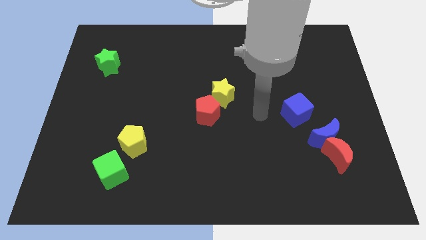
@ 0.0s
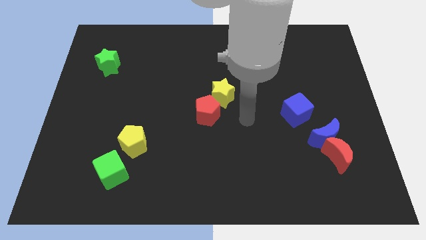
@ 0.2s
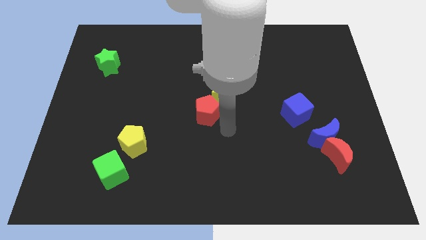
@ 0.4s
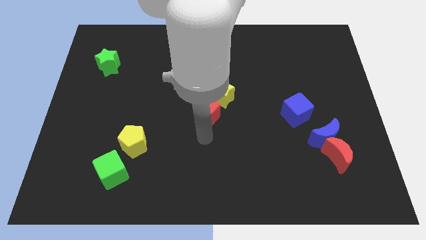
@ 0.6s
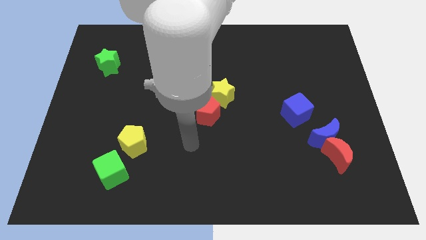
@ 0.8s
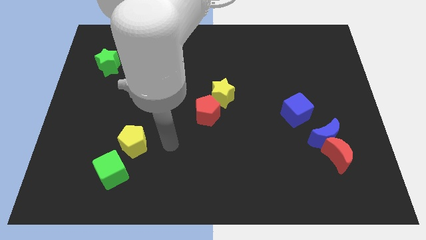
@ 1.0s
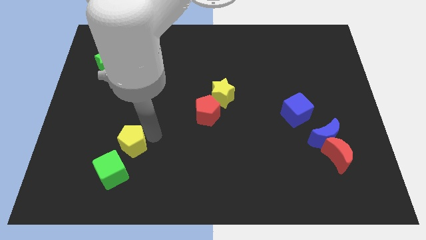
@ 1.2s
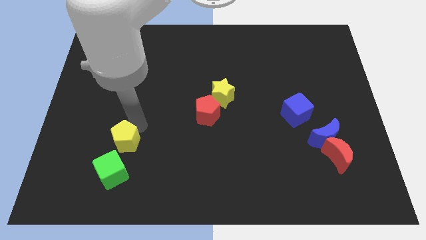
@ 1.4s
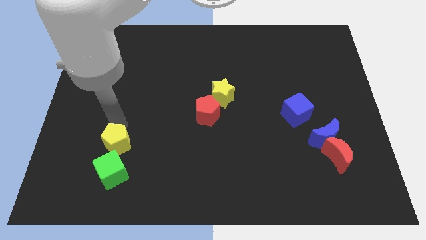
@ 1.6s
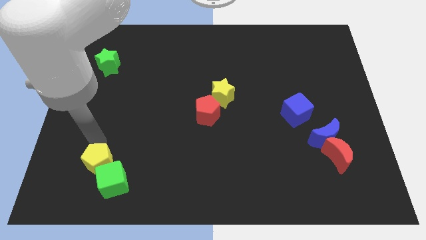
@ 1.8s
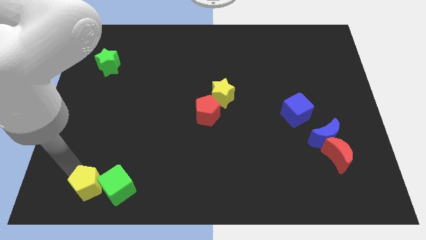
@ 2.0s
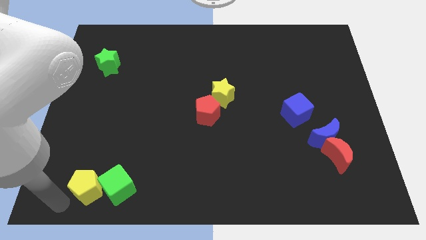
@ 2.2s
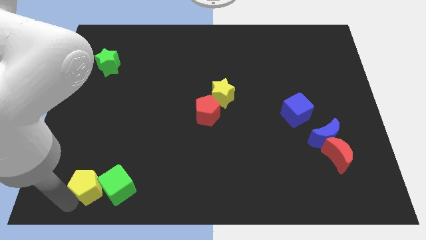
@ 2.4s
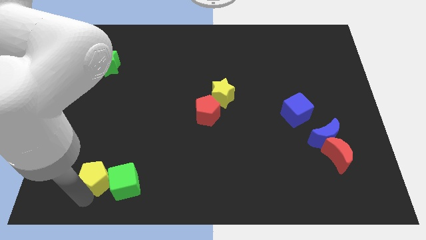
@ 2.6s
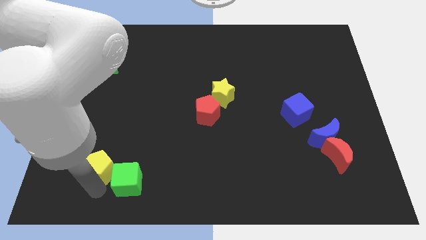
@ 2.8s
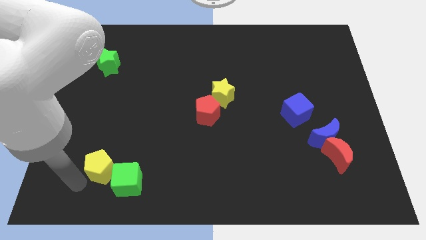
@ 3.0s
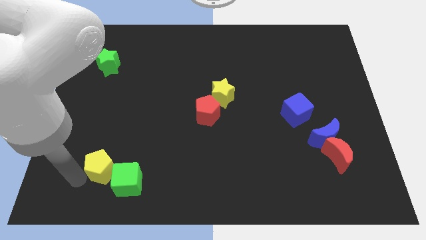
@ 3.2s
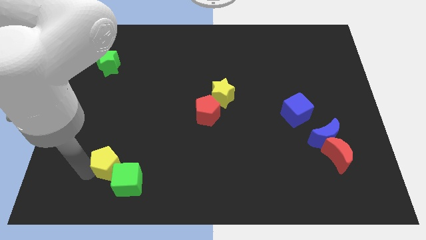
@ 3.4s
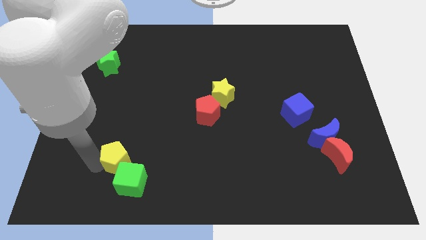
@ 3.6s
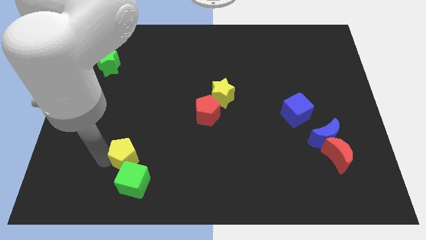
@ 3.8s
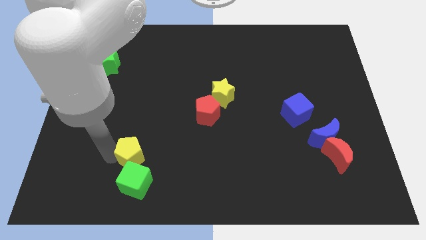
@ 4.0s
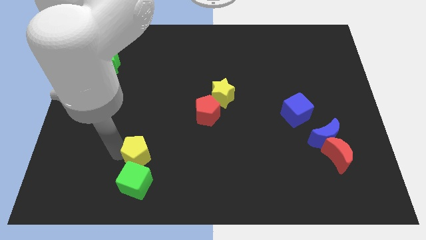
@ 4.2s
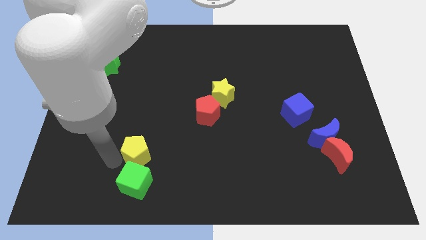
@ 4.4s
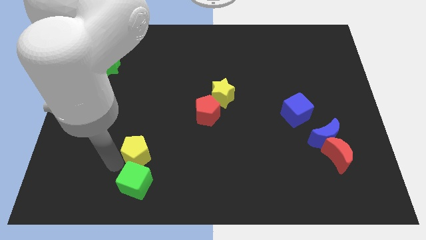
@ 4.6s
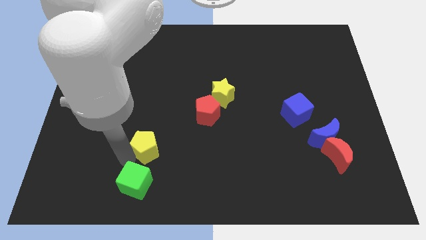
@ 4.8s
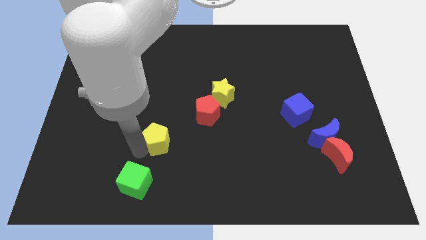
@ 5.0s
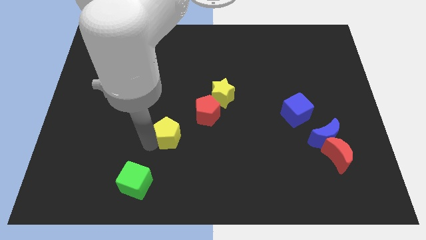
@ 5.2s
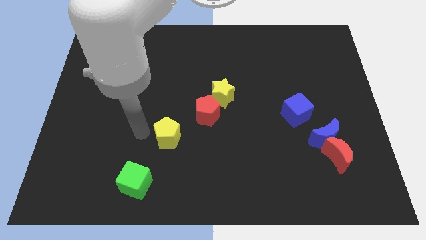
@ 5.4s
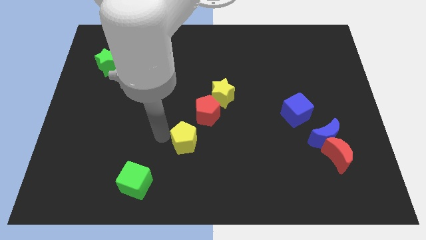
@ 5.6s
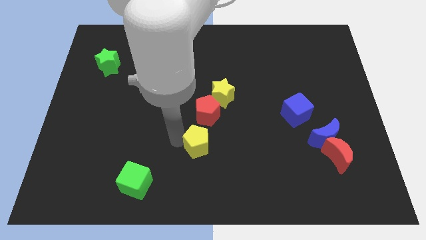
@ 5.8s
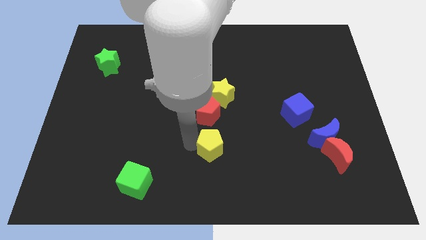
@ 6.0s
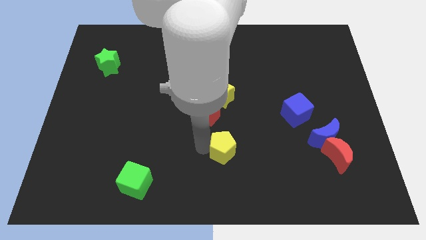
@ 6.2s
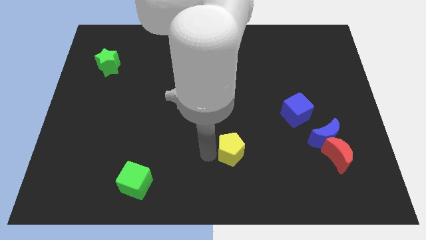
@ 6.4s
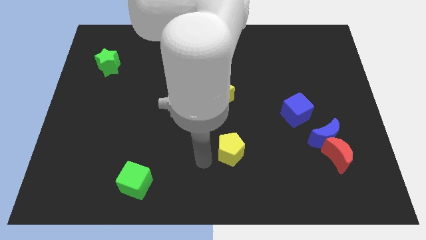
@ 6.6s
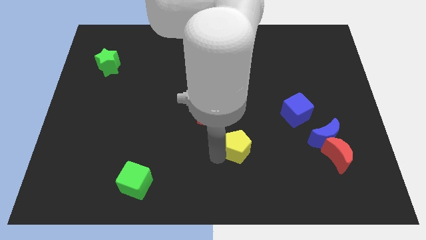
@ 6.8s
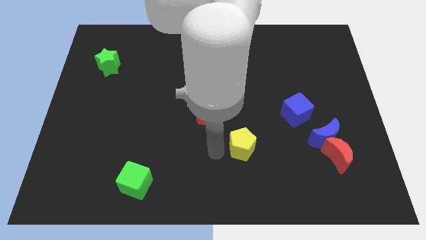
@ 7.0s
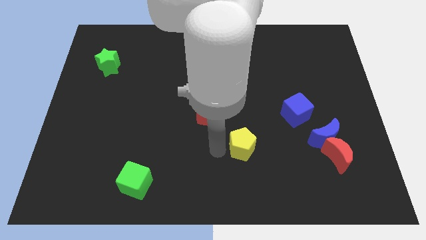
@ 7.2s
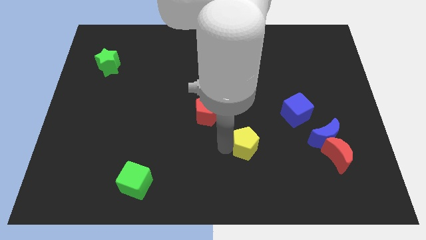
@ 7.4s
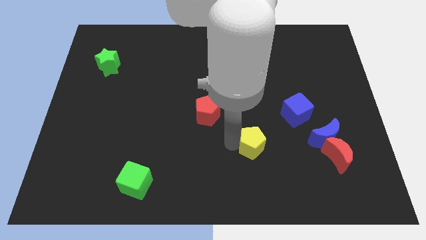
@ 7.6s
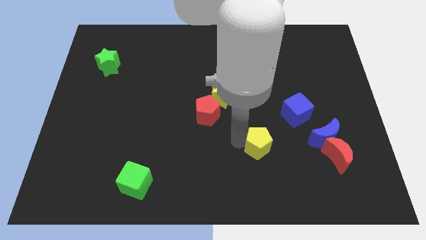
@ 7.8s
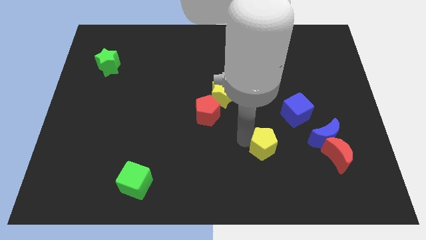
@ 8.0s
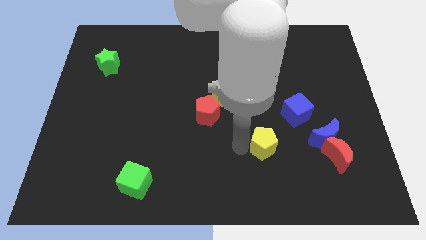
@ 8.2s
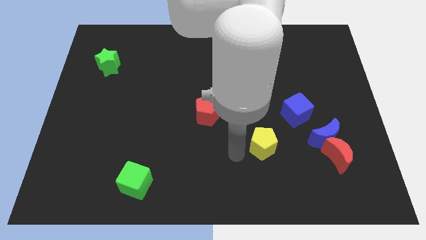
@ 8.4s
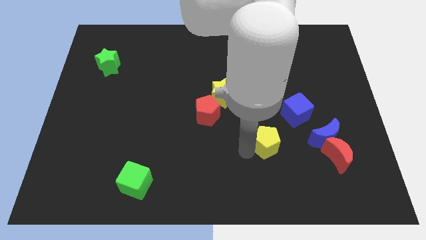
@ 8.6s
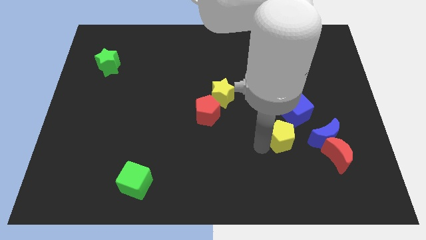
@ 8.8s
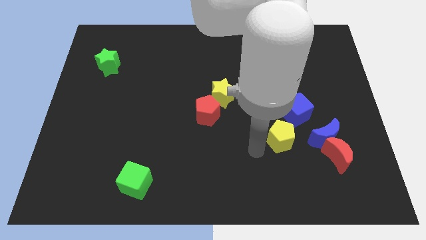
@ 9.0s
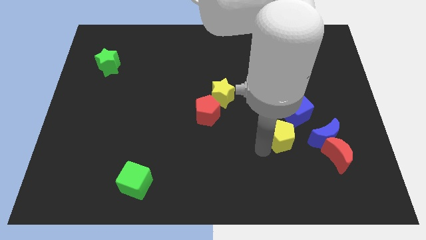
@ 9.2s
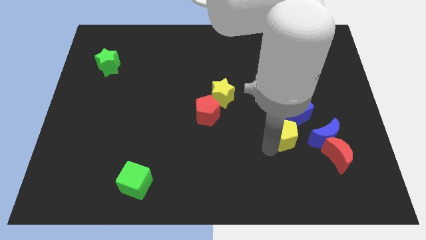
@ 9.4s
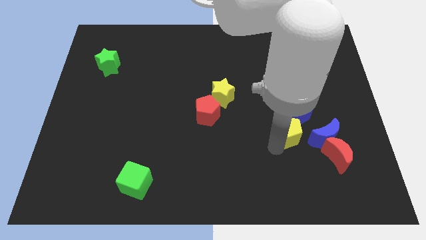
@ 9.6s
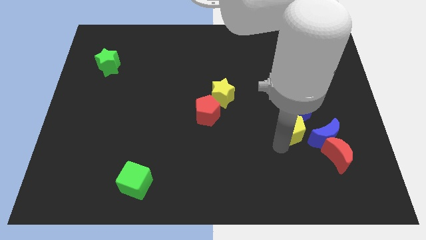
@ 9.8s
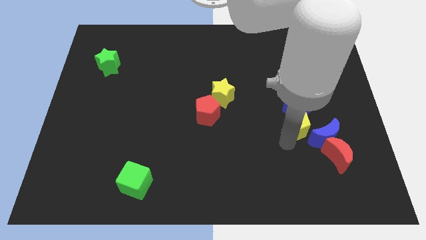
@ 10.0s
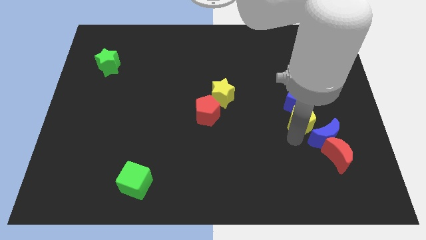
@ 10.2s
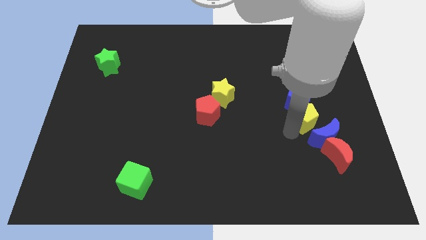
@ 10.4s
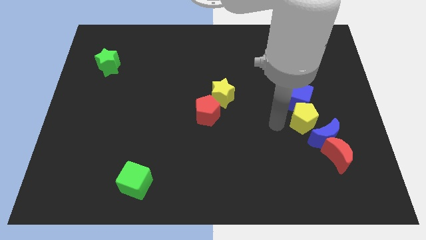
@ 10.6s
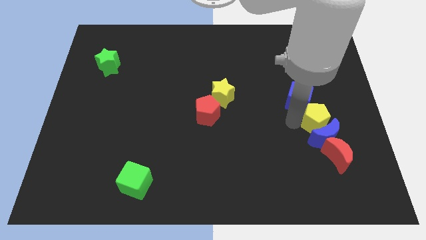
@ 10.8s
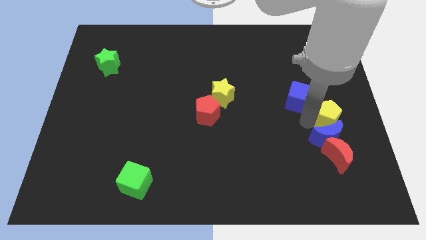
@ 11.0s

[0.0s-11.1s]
slide the yellow pentagon to the center right
